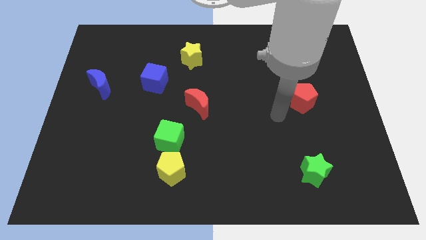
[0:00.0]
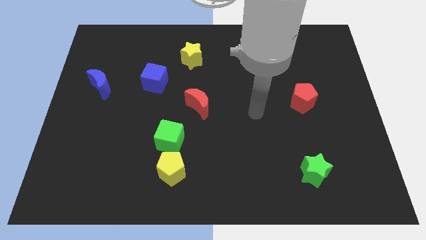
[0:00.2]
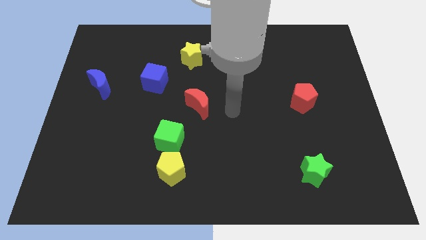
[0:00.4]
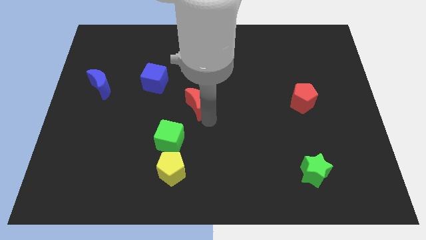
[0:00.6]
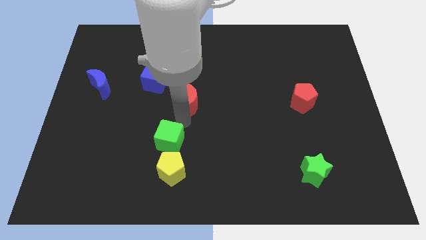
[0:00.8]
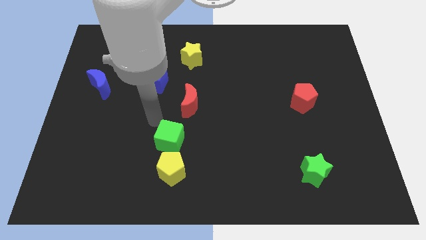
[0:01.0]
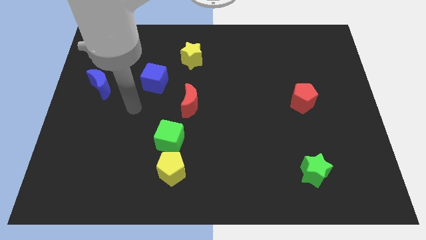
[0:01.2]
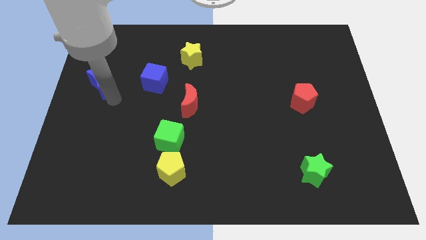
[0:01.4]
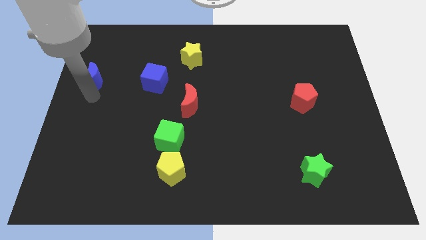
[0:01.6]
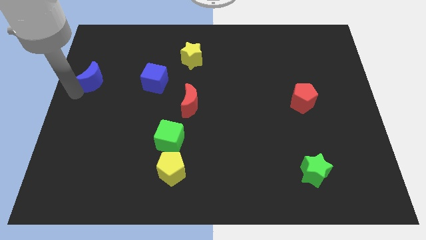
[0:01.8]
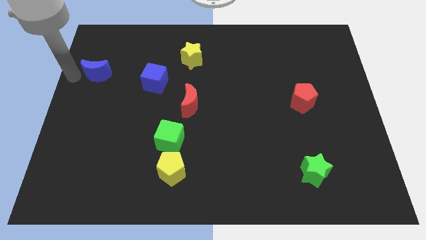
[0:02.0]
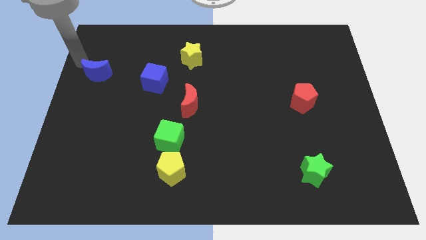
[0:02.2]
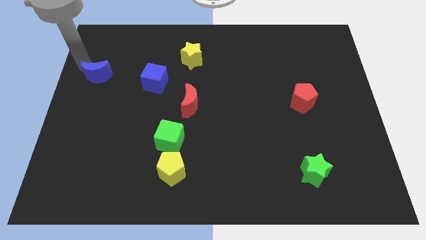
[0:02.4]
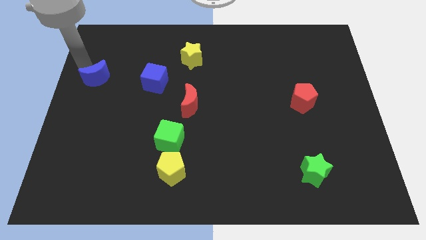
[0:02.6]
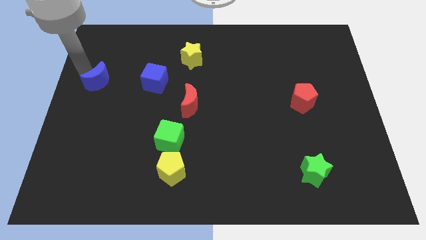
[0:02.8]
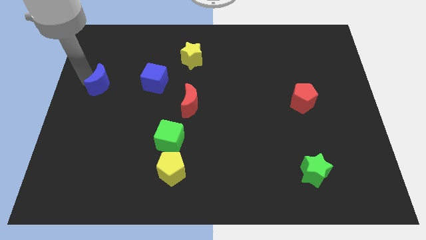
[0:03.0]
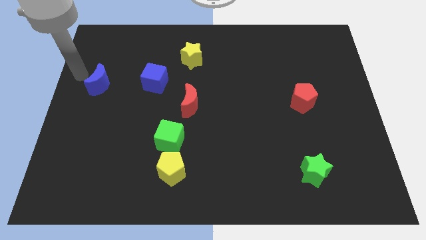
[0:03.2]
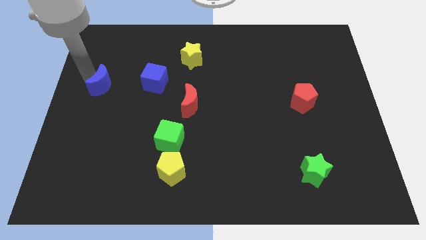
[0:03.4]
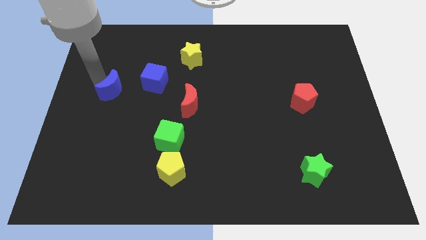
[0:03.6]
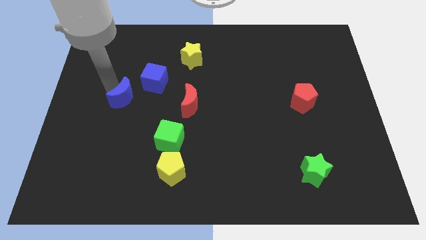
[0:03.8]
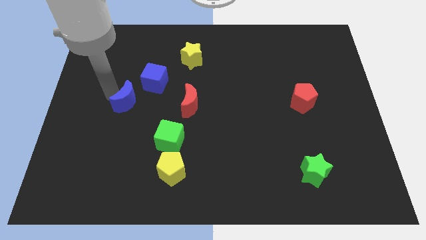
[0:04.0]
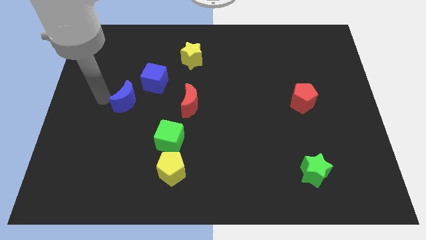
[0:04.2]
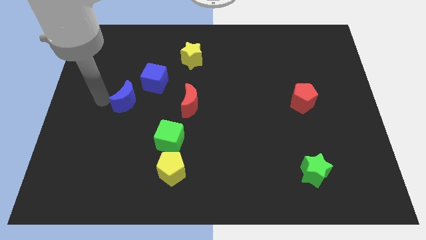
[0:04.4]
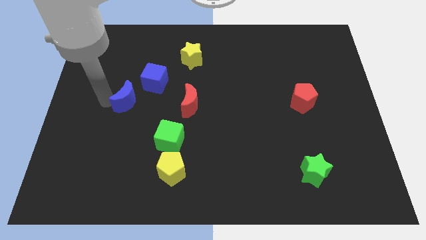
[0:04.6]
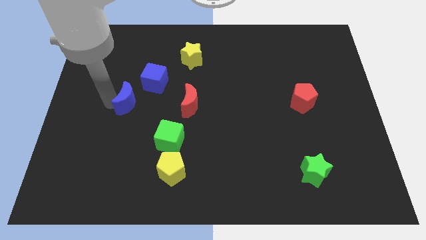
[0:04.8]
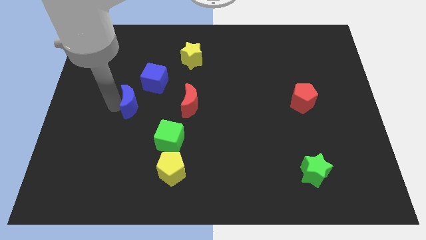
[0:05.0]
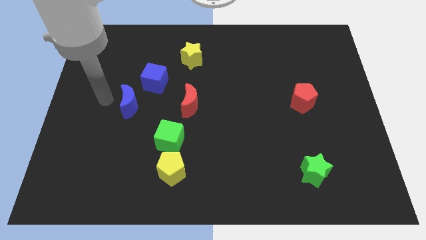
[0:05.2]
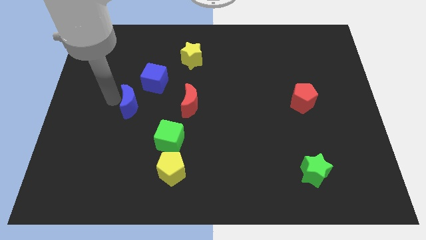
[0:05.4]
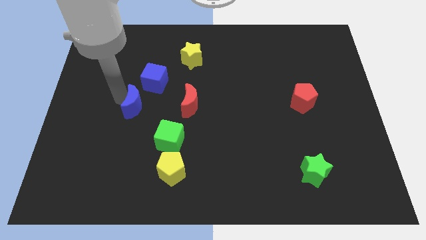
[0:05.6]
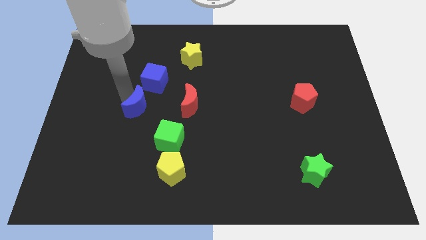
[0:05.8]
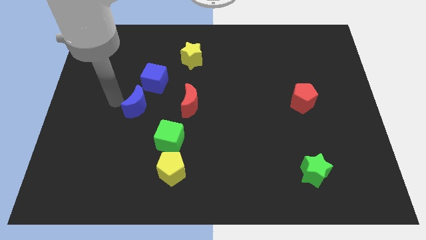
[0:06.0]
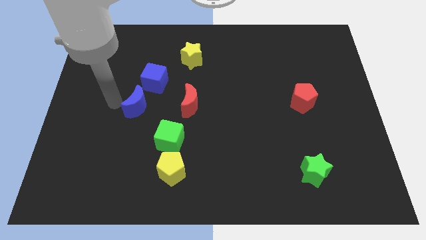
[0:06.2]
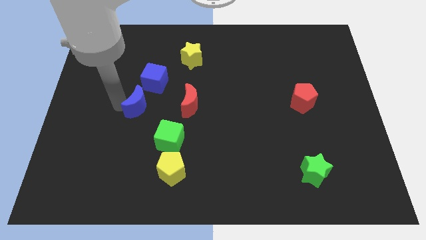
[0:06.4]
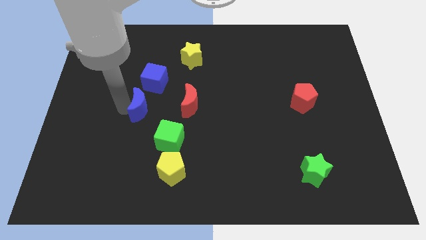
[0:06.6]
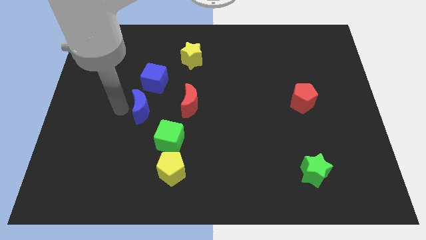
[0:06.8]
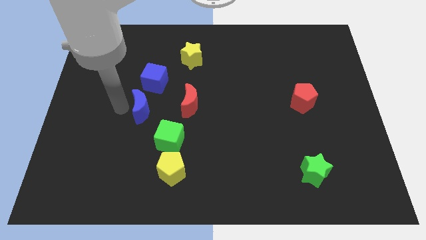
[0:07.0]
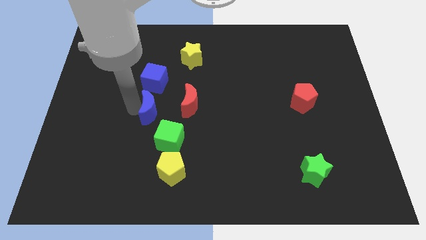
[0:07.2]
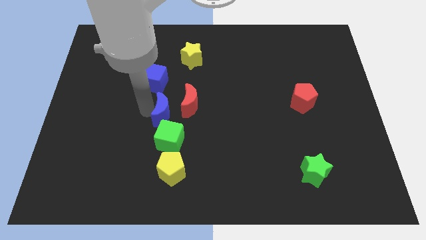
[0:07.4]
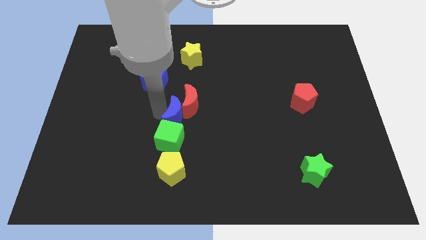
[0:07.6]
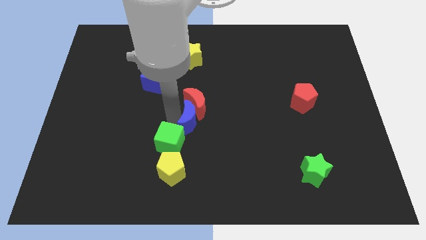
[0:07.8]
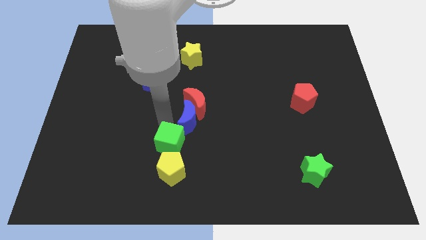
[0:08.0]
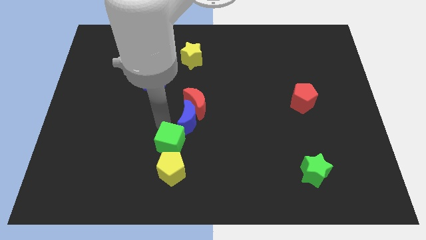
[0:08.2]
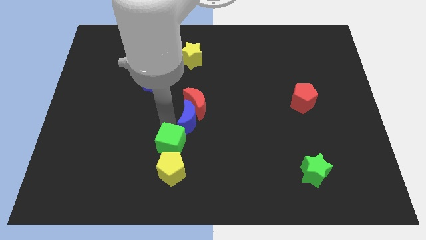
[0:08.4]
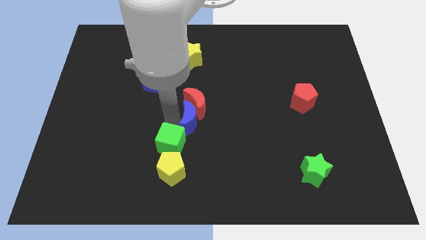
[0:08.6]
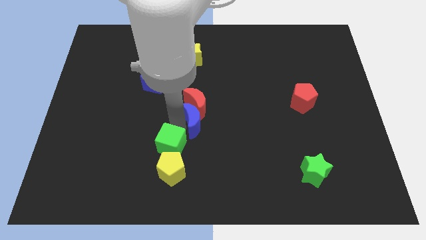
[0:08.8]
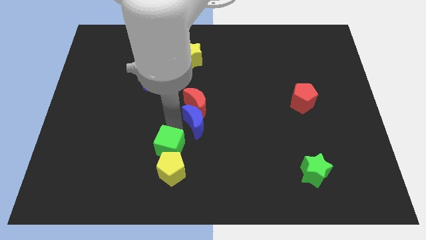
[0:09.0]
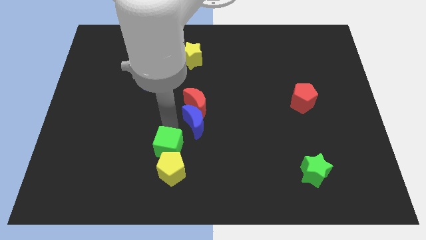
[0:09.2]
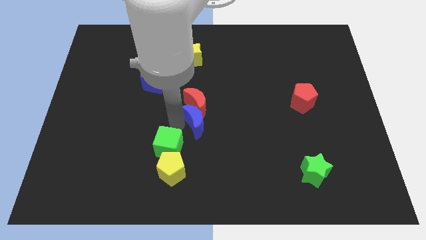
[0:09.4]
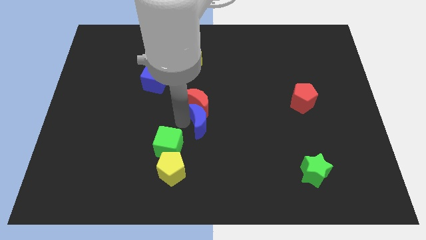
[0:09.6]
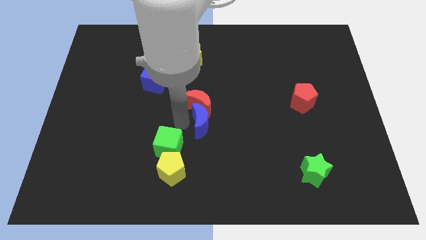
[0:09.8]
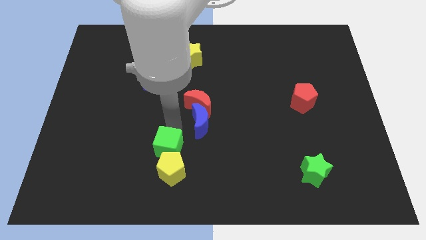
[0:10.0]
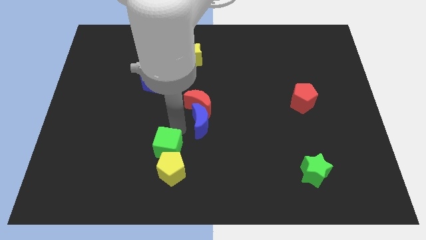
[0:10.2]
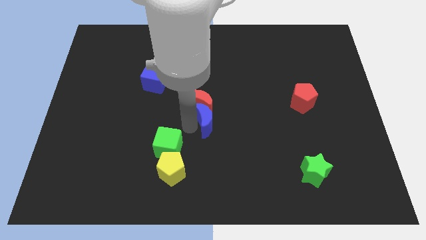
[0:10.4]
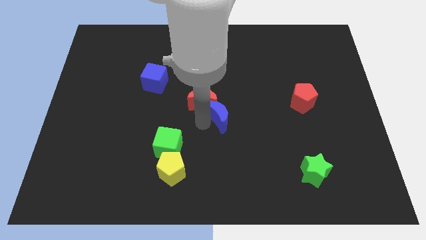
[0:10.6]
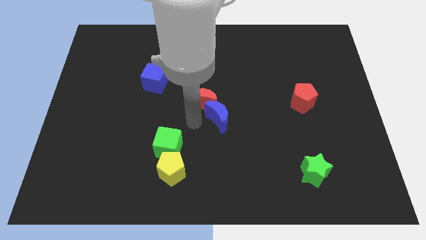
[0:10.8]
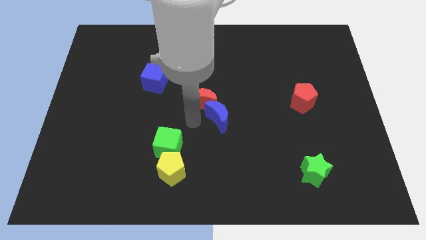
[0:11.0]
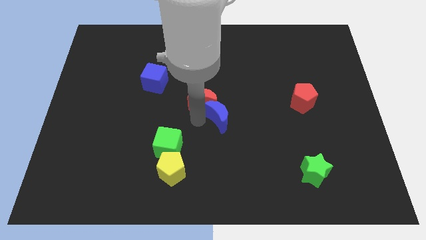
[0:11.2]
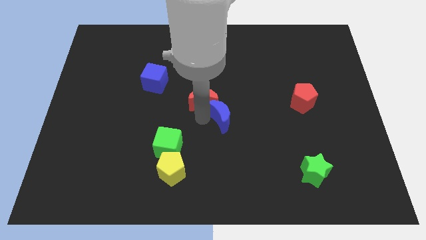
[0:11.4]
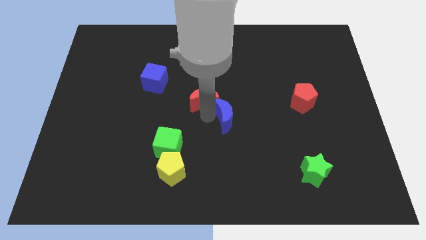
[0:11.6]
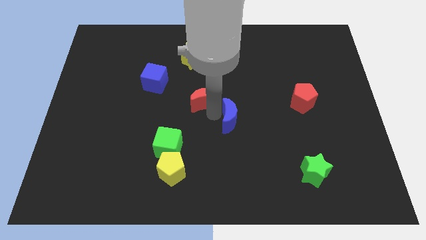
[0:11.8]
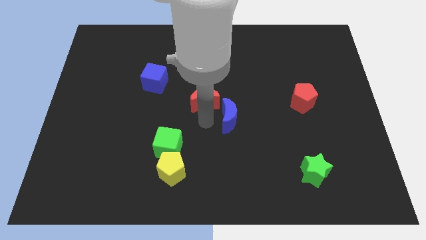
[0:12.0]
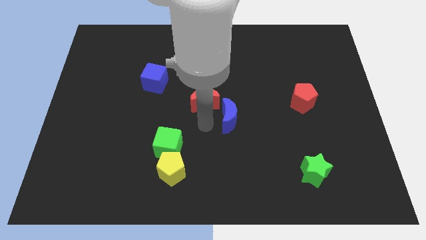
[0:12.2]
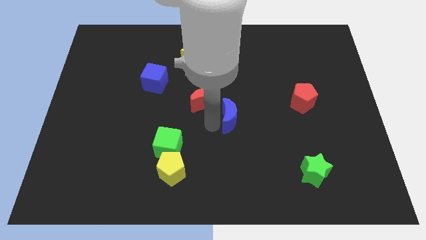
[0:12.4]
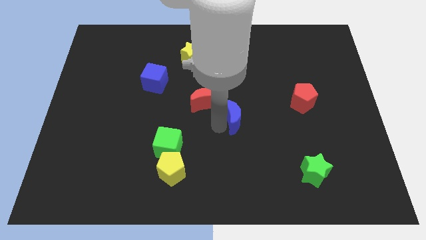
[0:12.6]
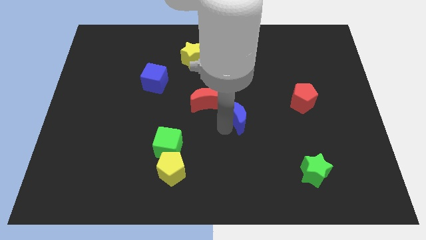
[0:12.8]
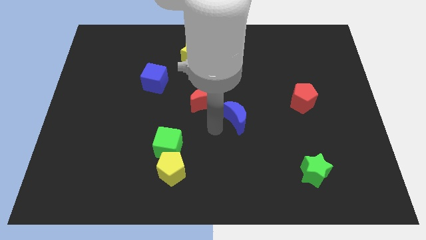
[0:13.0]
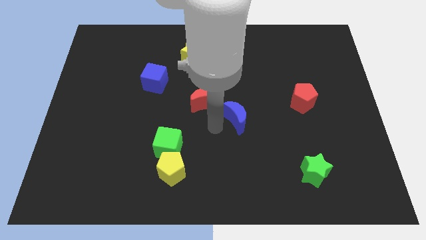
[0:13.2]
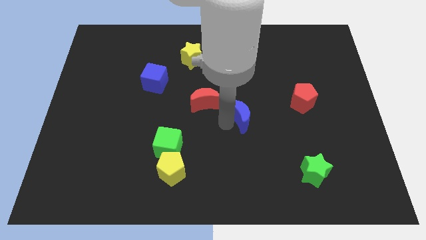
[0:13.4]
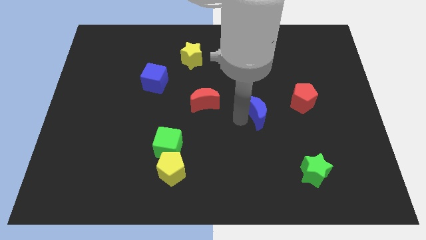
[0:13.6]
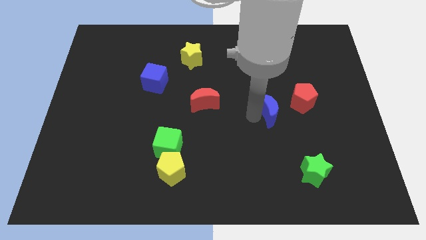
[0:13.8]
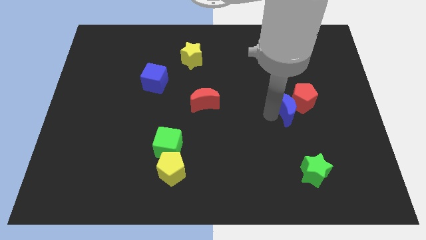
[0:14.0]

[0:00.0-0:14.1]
move the blue moon towards the red pentagon

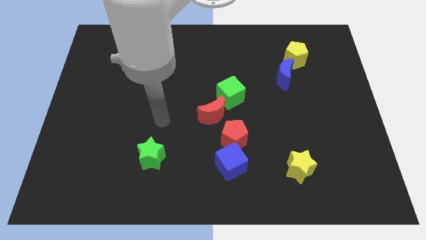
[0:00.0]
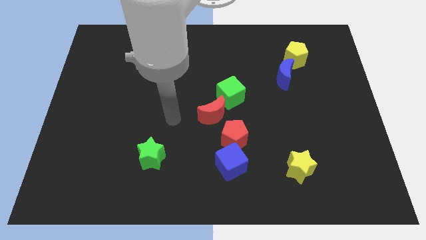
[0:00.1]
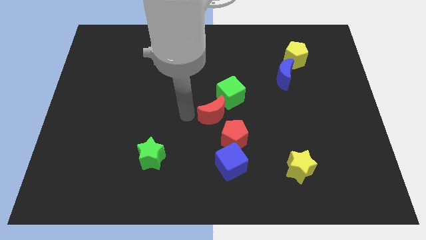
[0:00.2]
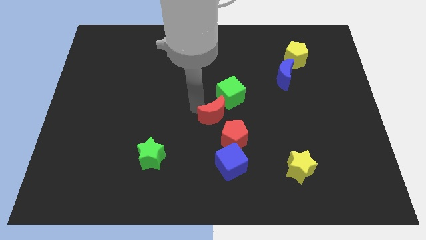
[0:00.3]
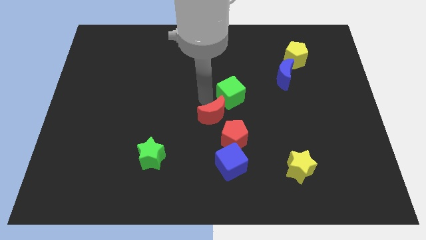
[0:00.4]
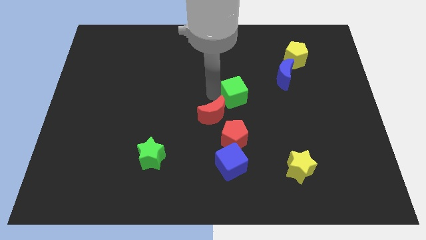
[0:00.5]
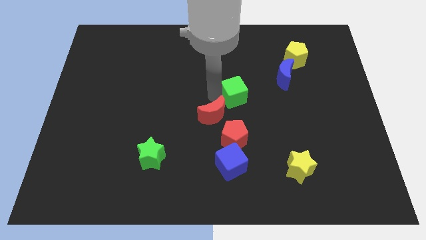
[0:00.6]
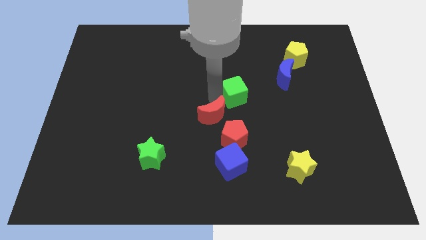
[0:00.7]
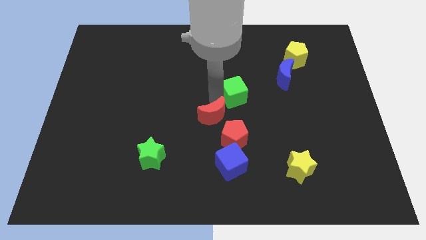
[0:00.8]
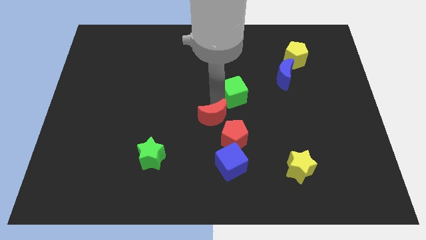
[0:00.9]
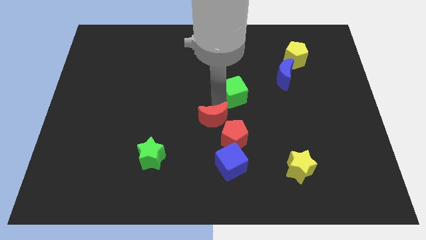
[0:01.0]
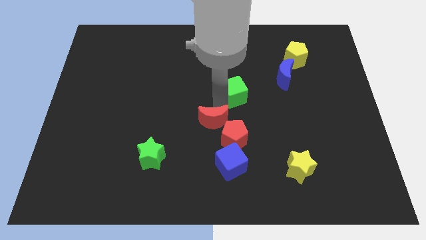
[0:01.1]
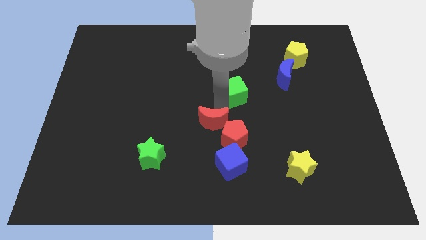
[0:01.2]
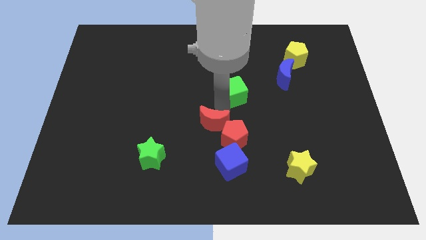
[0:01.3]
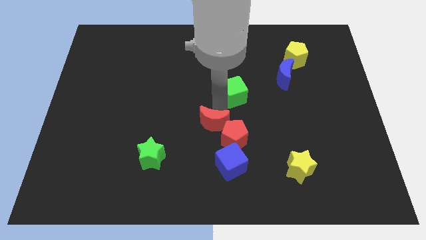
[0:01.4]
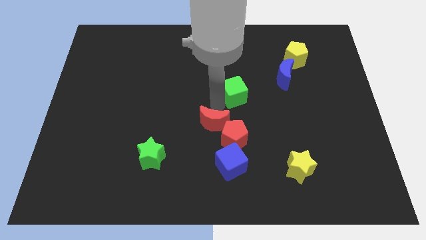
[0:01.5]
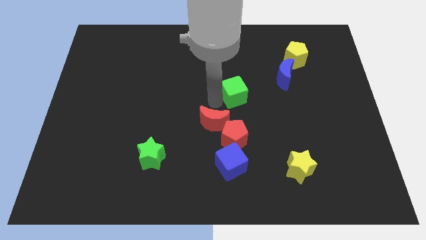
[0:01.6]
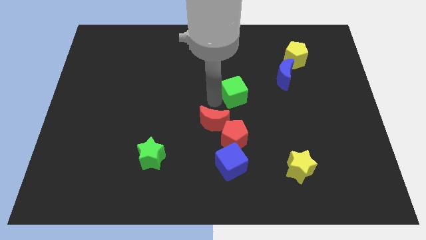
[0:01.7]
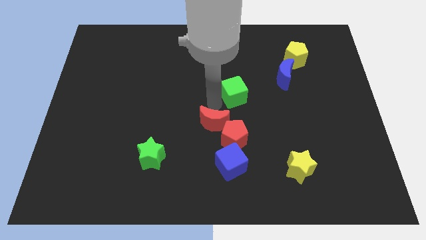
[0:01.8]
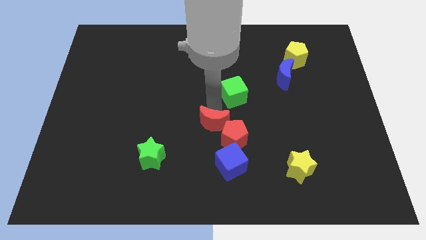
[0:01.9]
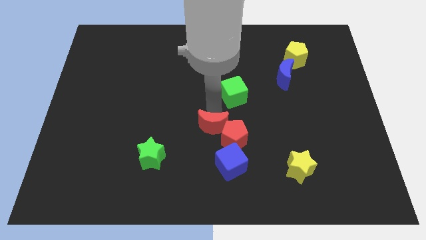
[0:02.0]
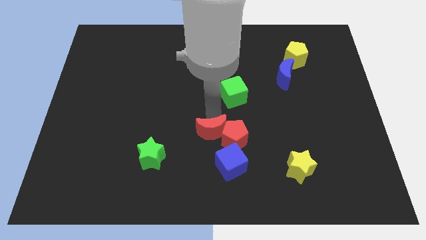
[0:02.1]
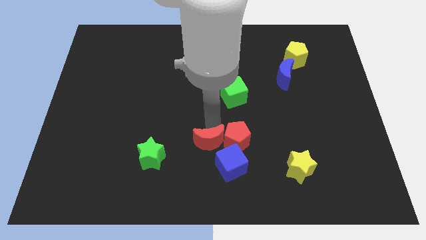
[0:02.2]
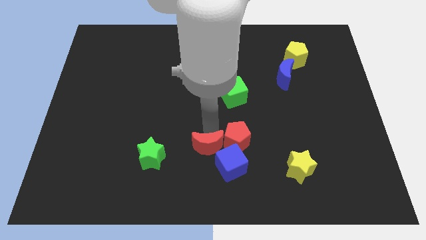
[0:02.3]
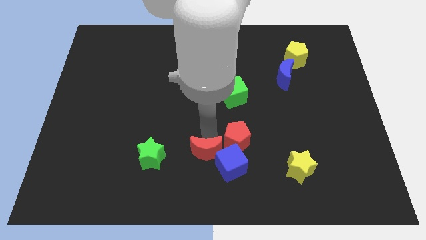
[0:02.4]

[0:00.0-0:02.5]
move the red moon towards the blue cube
